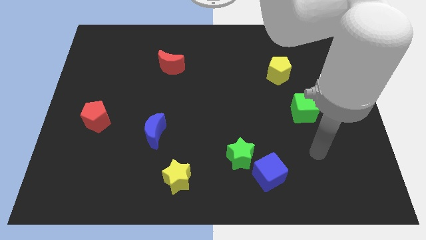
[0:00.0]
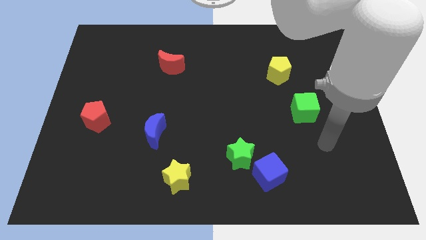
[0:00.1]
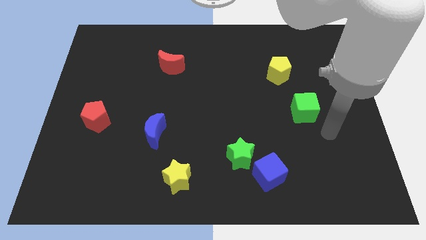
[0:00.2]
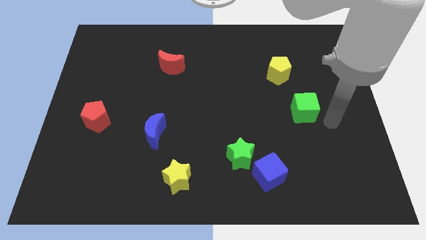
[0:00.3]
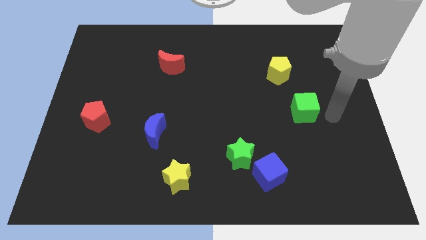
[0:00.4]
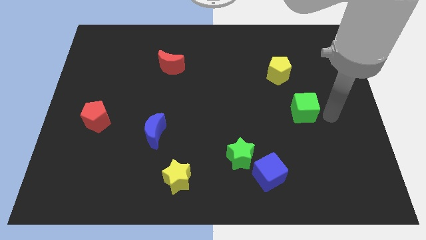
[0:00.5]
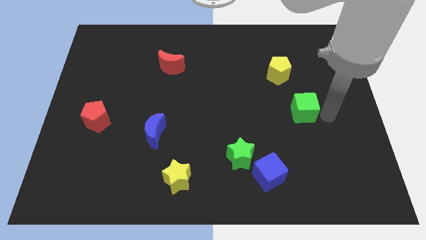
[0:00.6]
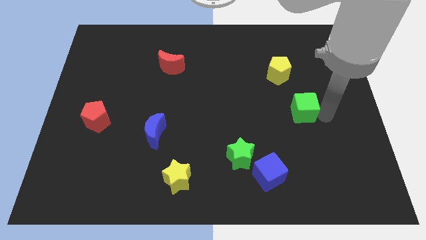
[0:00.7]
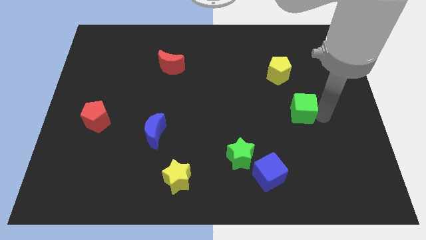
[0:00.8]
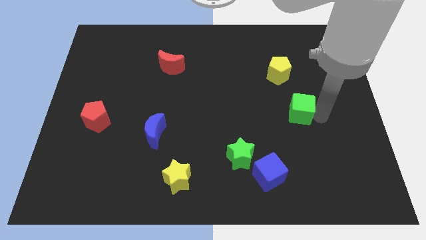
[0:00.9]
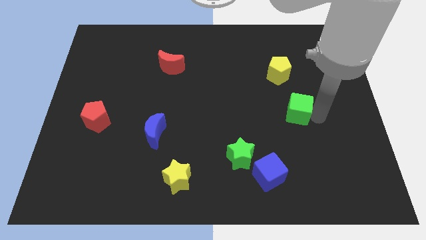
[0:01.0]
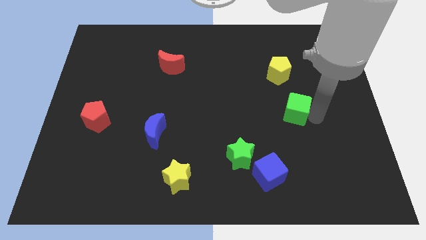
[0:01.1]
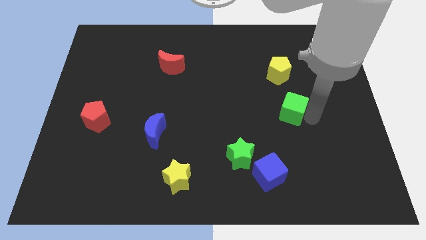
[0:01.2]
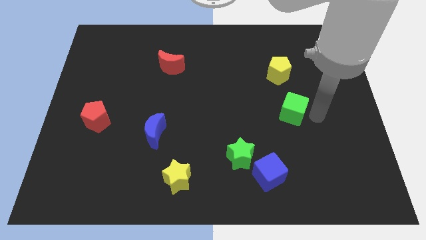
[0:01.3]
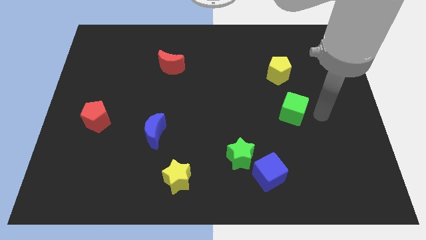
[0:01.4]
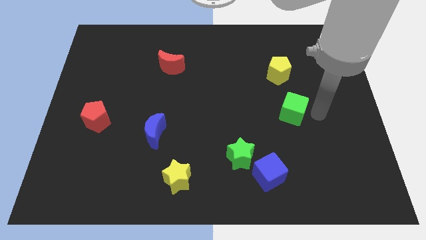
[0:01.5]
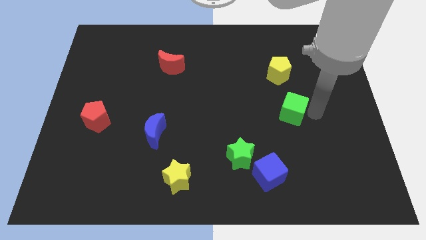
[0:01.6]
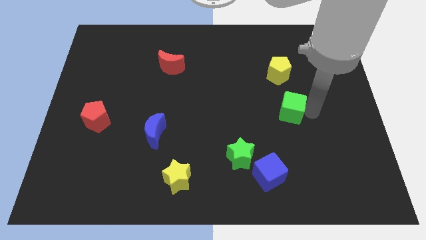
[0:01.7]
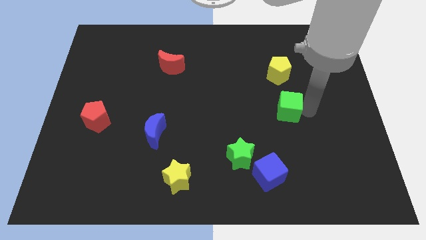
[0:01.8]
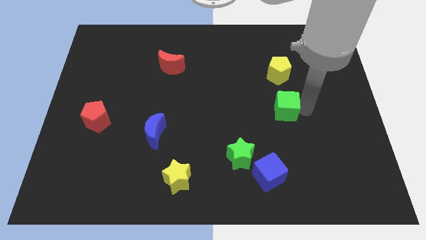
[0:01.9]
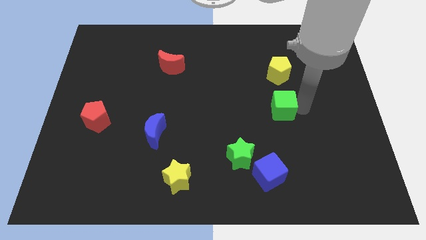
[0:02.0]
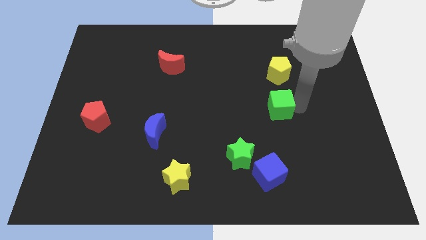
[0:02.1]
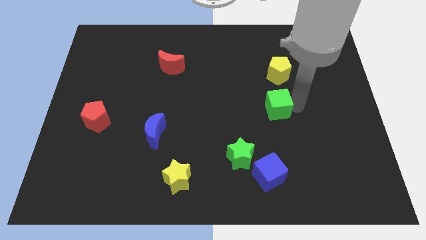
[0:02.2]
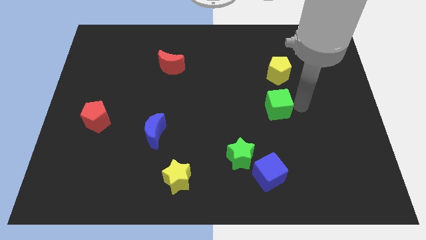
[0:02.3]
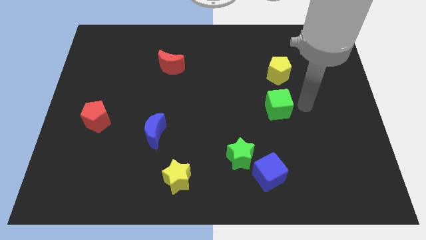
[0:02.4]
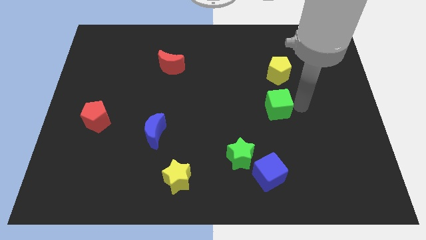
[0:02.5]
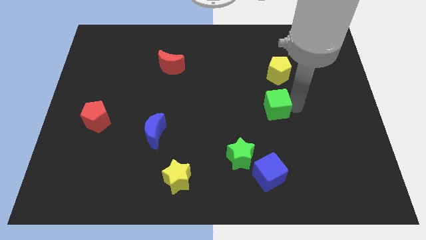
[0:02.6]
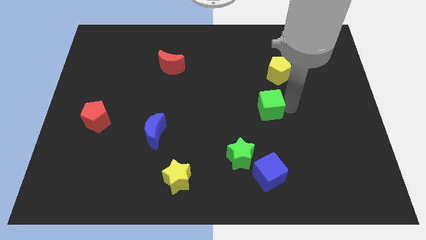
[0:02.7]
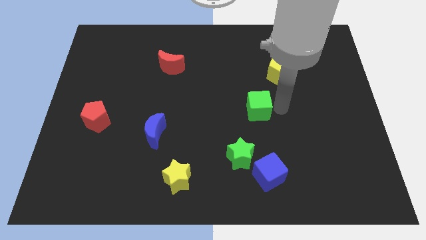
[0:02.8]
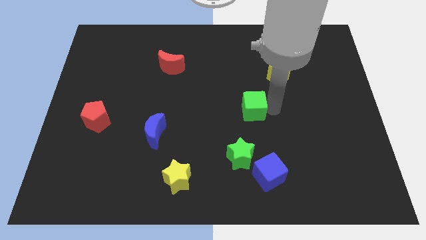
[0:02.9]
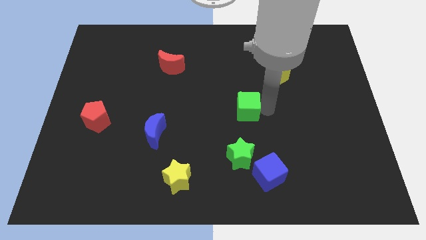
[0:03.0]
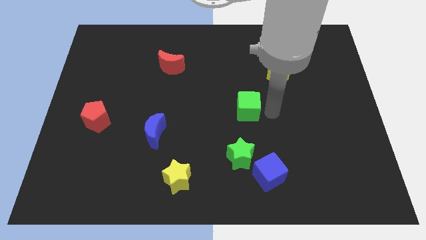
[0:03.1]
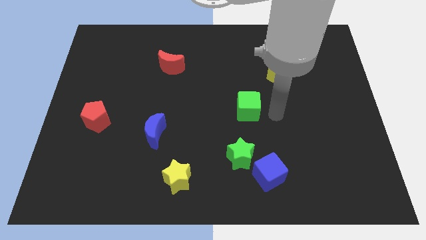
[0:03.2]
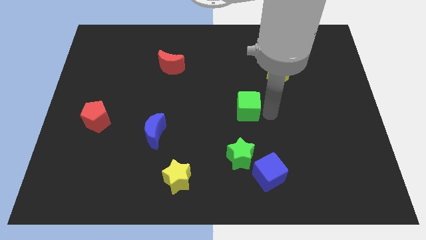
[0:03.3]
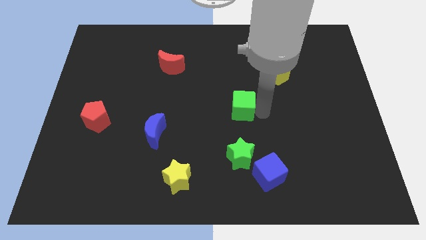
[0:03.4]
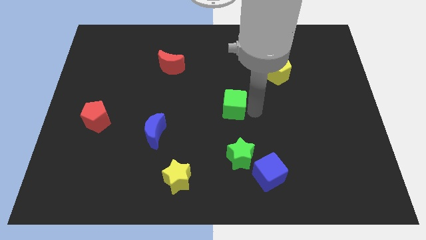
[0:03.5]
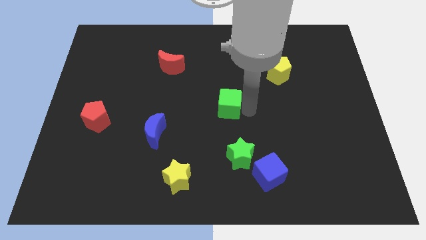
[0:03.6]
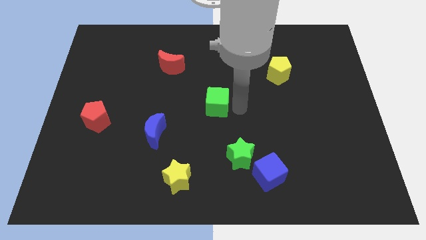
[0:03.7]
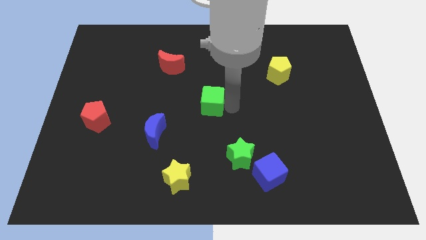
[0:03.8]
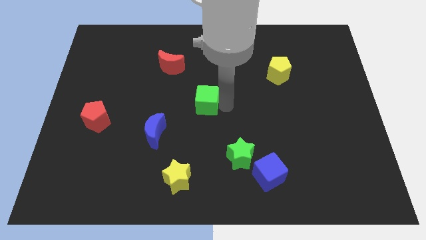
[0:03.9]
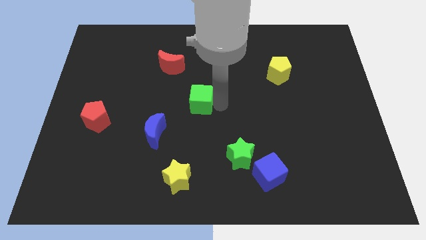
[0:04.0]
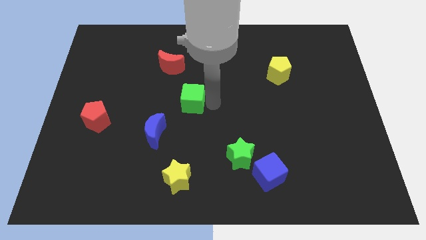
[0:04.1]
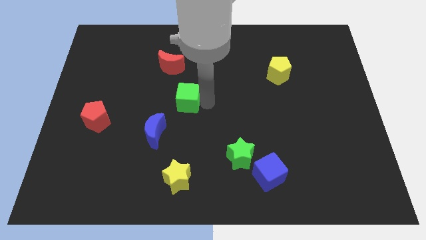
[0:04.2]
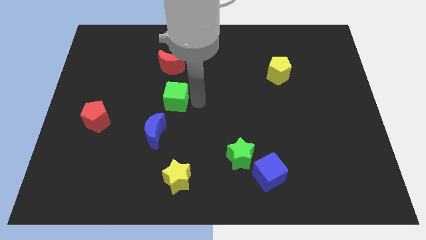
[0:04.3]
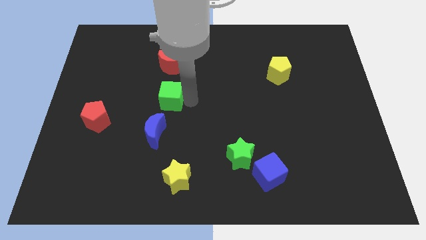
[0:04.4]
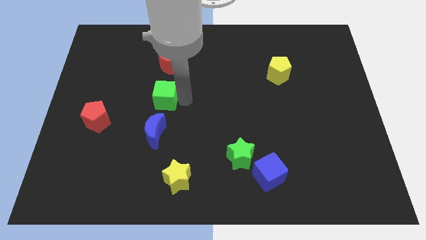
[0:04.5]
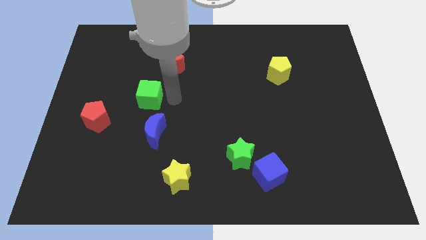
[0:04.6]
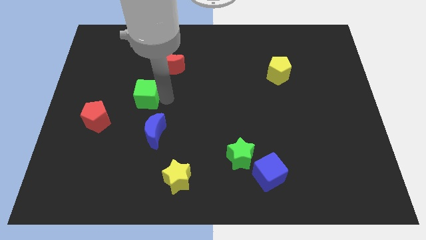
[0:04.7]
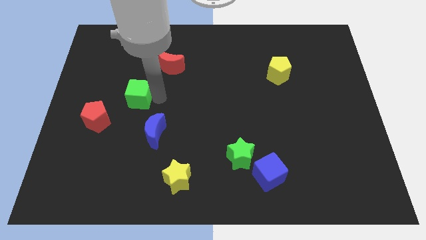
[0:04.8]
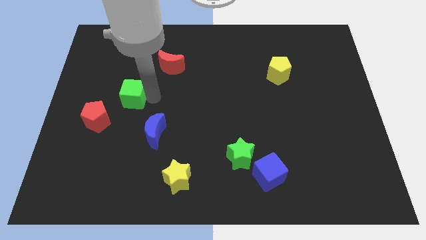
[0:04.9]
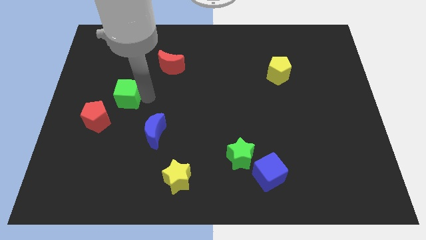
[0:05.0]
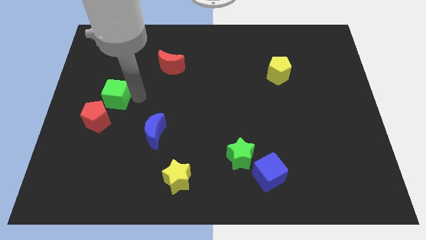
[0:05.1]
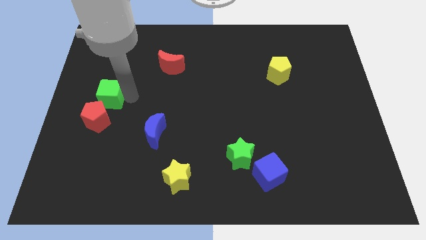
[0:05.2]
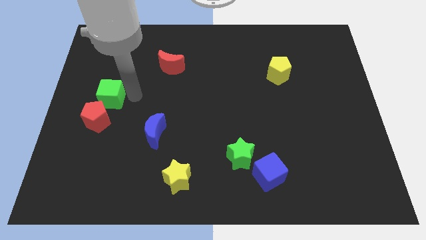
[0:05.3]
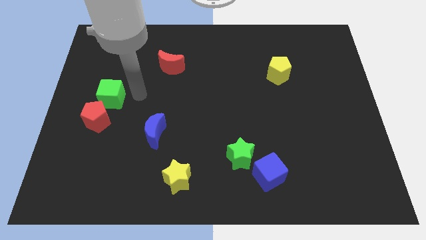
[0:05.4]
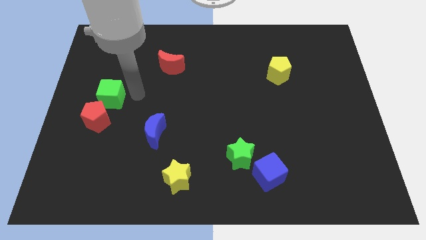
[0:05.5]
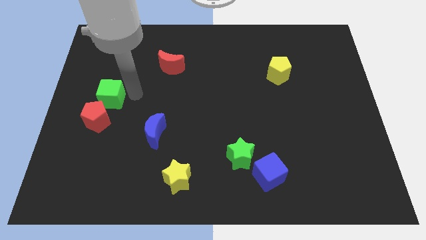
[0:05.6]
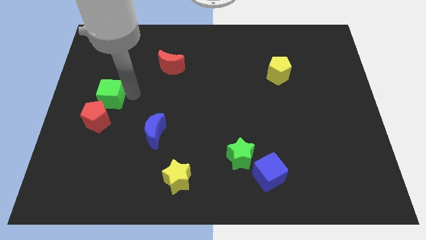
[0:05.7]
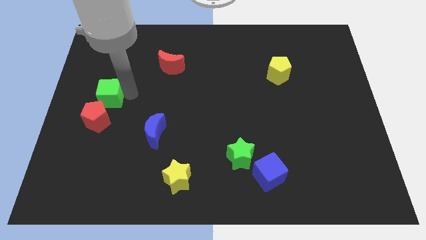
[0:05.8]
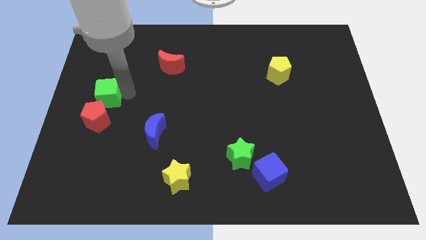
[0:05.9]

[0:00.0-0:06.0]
slide the green cube to the left side of the board

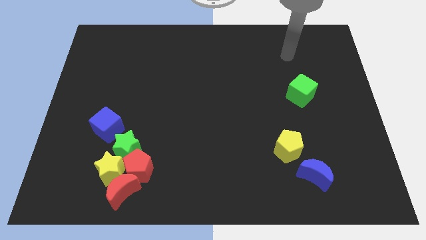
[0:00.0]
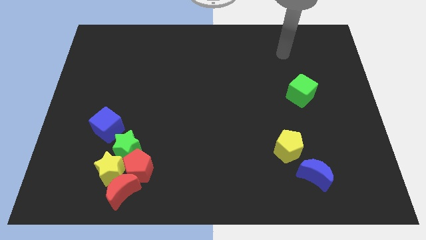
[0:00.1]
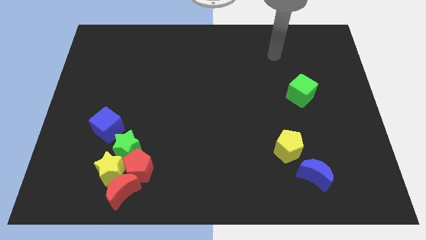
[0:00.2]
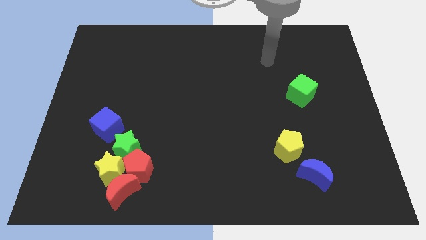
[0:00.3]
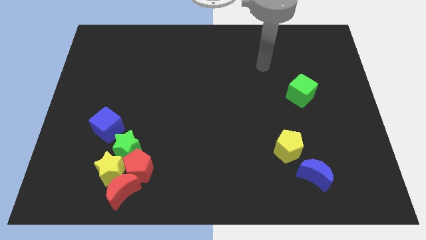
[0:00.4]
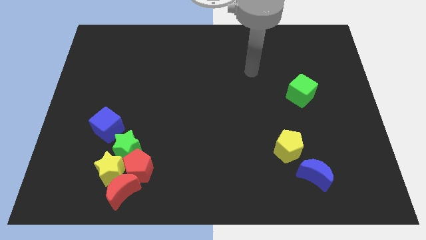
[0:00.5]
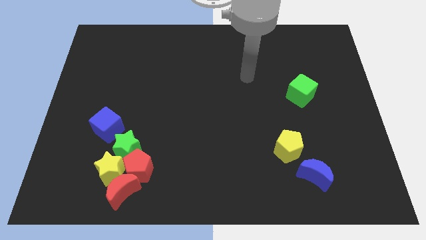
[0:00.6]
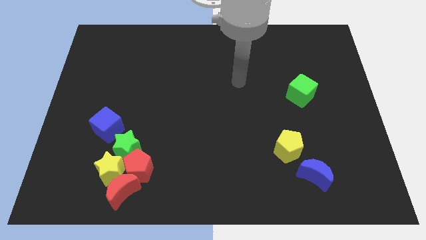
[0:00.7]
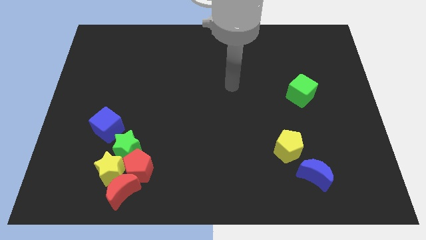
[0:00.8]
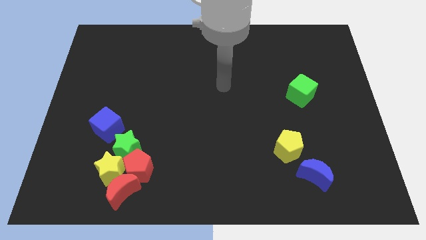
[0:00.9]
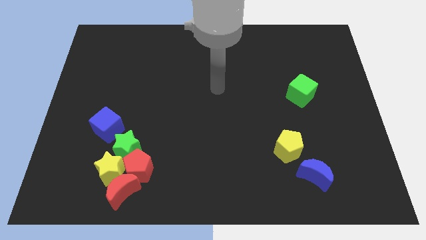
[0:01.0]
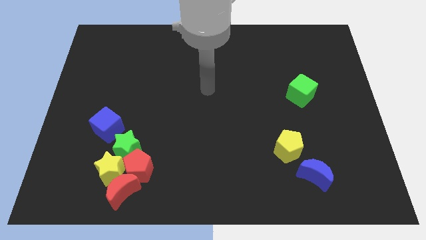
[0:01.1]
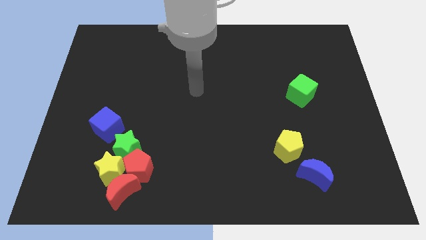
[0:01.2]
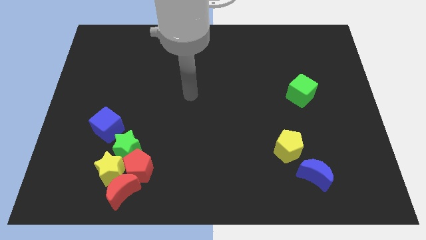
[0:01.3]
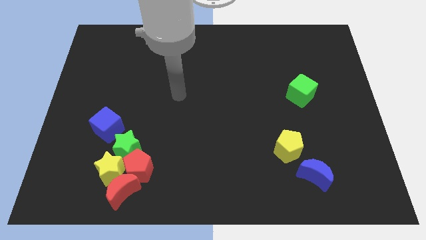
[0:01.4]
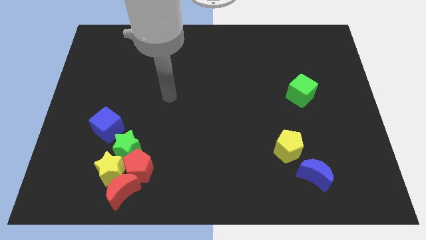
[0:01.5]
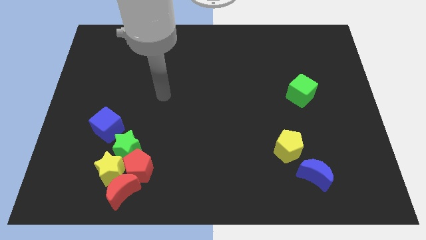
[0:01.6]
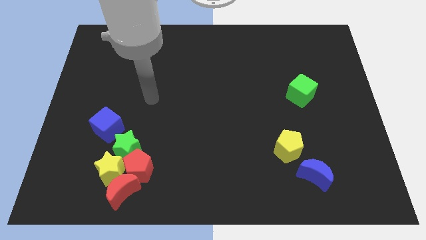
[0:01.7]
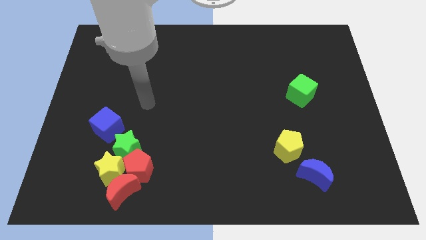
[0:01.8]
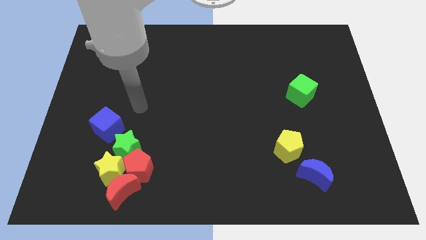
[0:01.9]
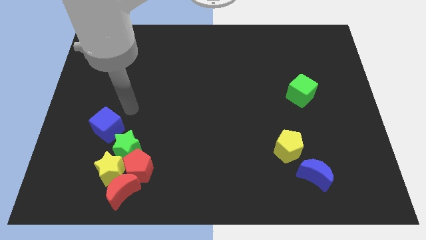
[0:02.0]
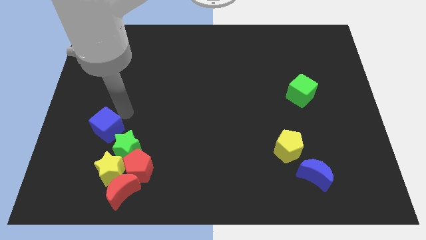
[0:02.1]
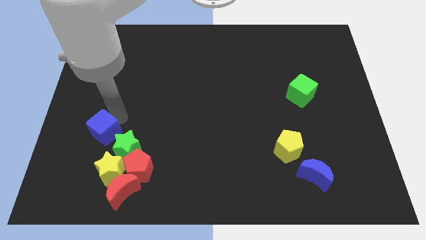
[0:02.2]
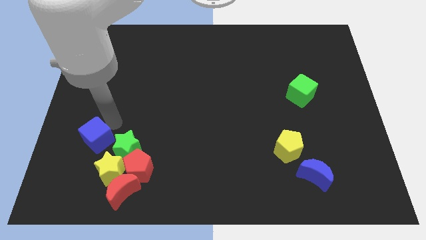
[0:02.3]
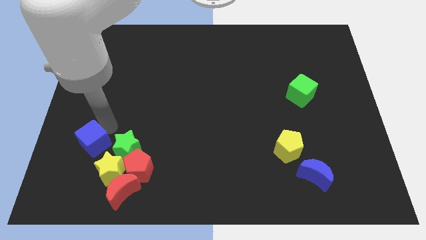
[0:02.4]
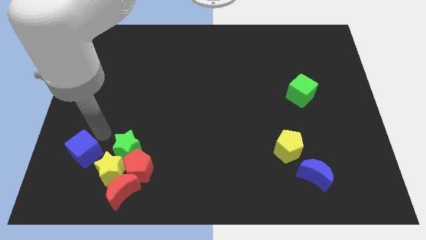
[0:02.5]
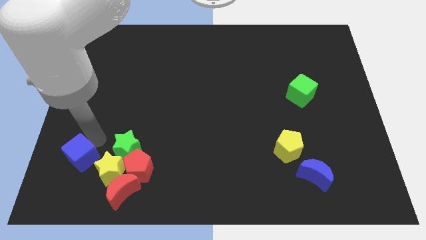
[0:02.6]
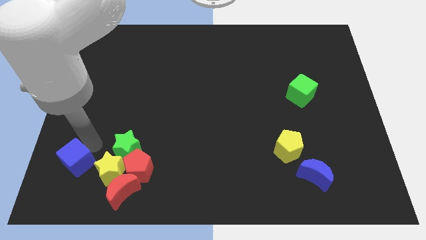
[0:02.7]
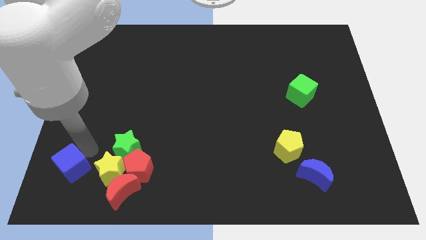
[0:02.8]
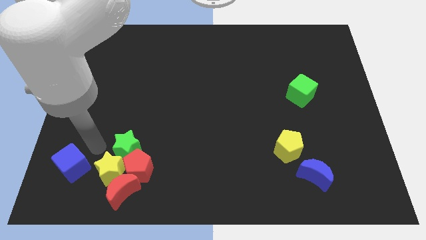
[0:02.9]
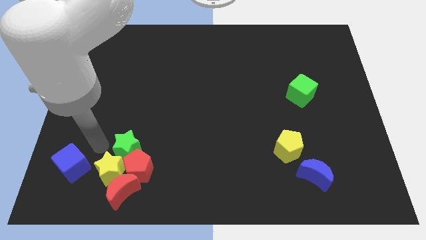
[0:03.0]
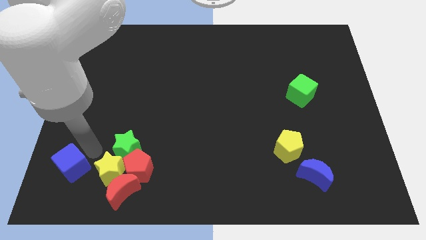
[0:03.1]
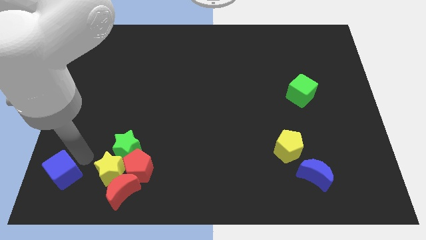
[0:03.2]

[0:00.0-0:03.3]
push the blue cube to the bottom left corner
